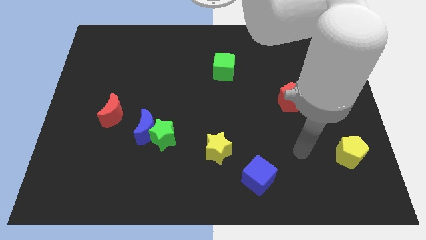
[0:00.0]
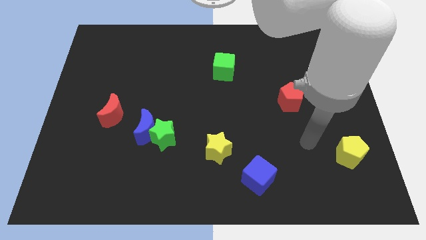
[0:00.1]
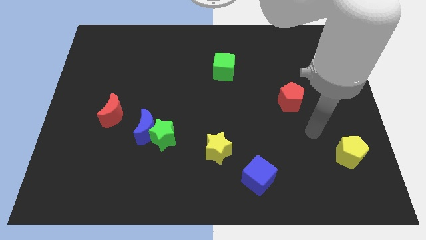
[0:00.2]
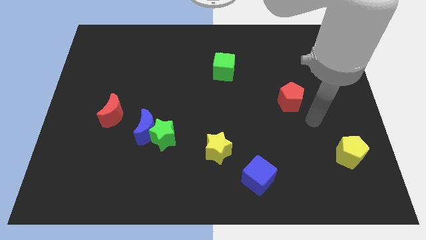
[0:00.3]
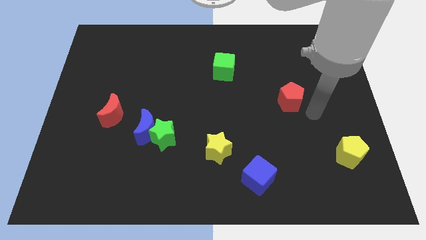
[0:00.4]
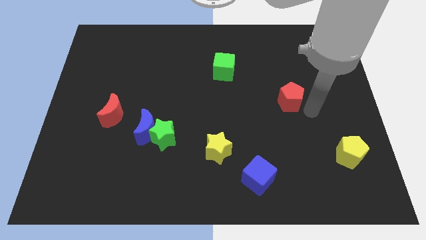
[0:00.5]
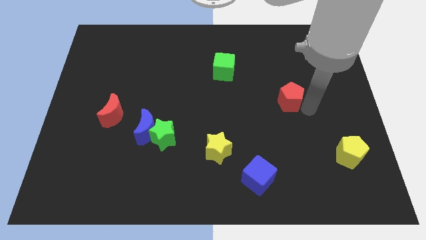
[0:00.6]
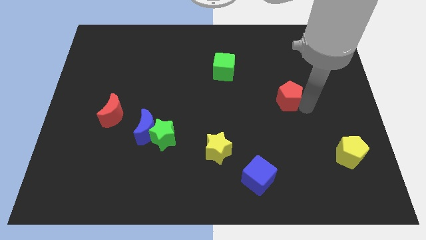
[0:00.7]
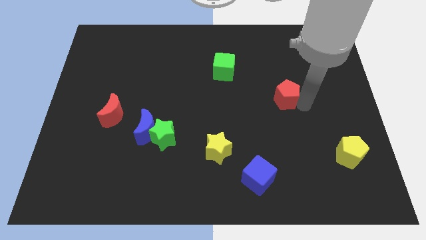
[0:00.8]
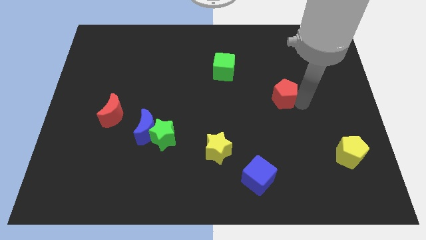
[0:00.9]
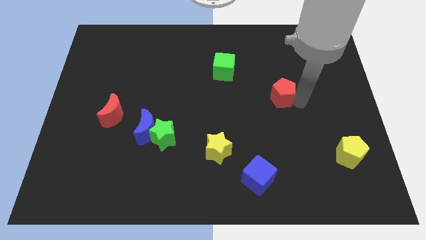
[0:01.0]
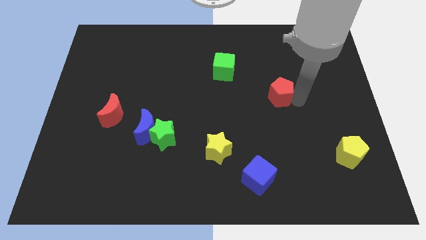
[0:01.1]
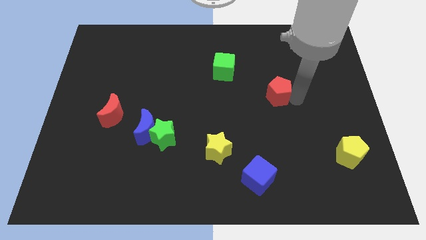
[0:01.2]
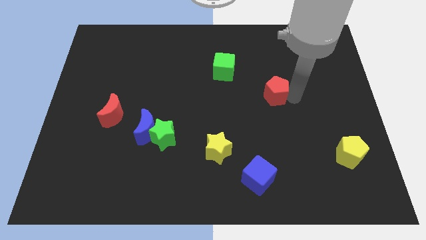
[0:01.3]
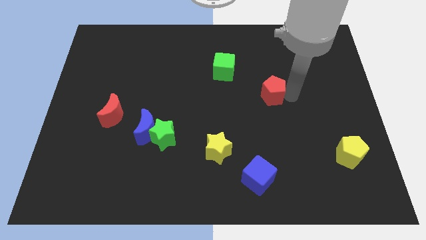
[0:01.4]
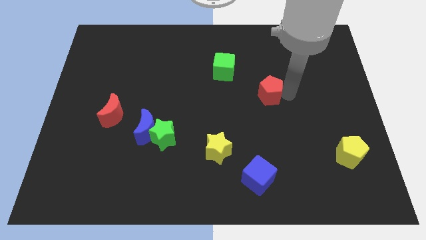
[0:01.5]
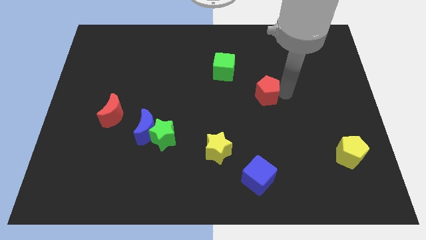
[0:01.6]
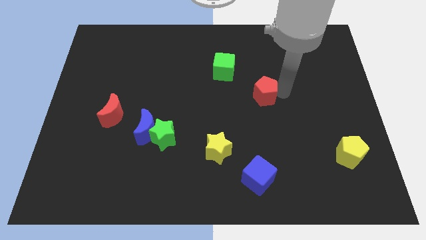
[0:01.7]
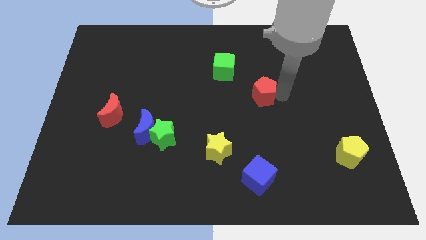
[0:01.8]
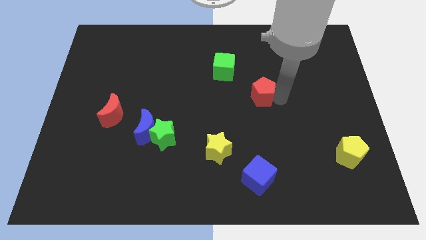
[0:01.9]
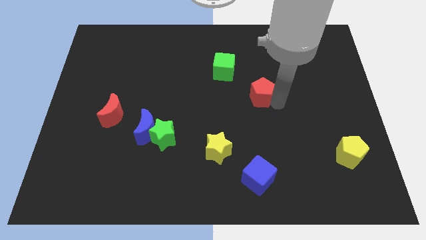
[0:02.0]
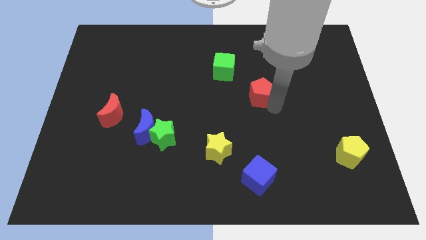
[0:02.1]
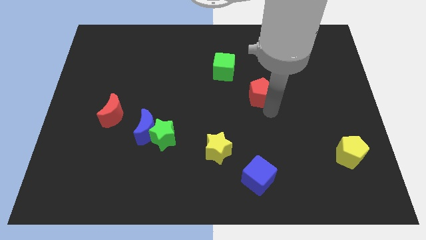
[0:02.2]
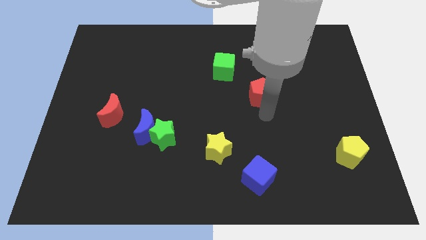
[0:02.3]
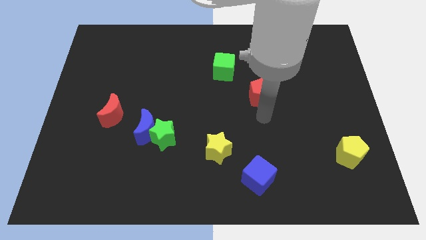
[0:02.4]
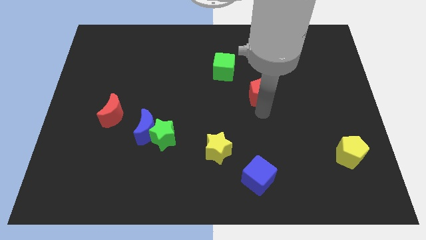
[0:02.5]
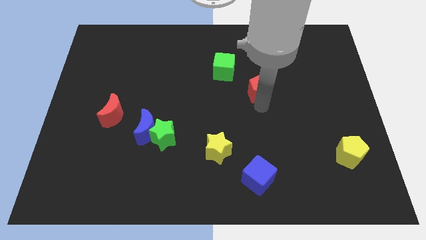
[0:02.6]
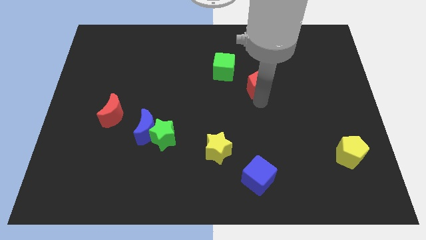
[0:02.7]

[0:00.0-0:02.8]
move the red pentagon diagonally upwards and to the left a little

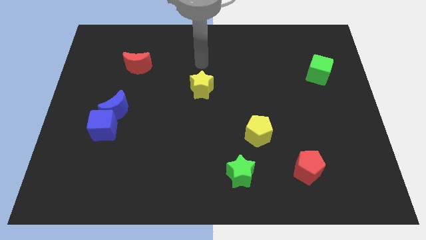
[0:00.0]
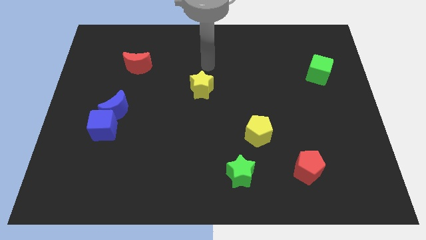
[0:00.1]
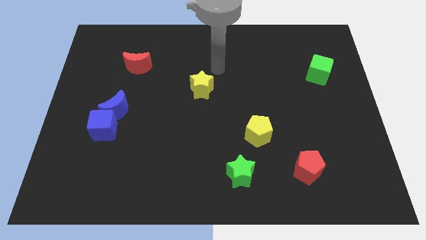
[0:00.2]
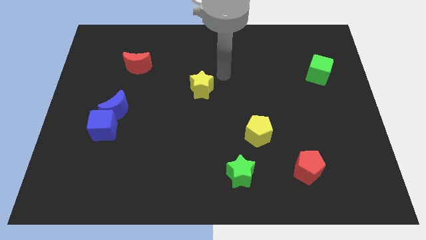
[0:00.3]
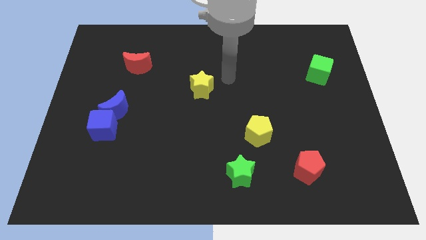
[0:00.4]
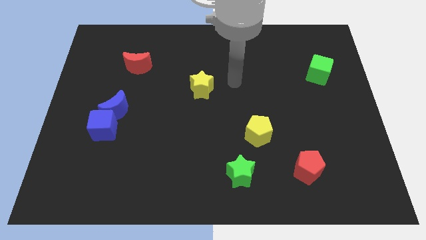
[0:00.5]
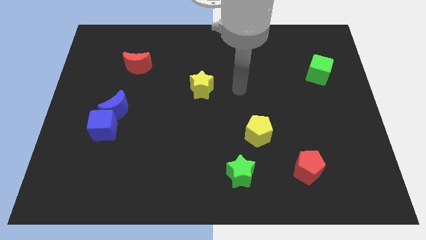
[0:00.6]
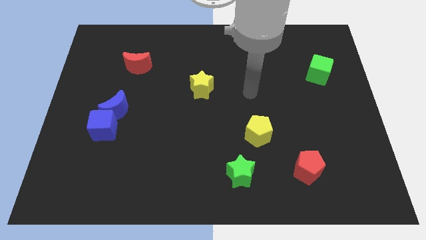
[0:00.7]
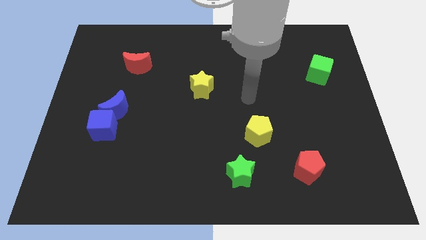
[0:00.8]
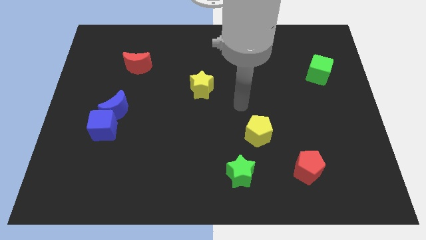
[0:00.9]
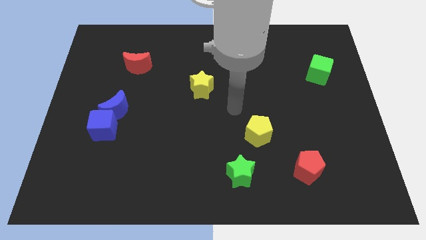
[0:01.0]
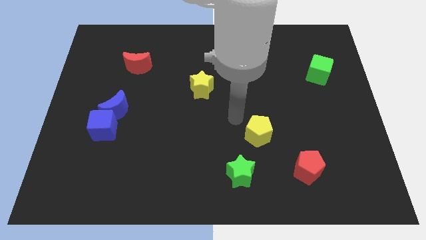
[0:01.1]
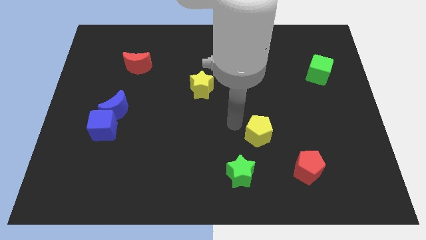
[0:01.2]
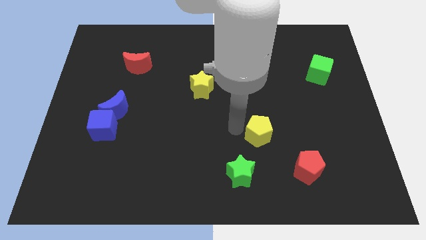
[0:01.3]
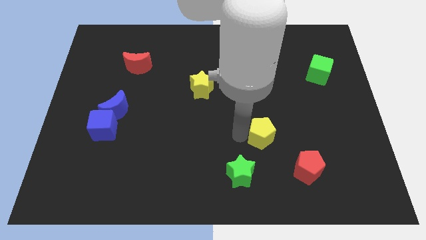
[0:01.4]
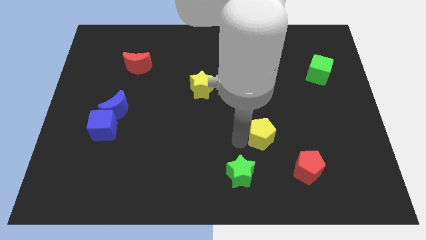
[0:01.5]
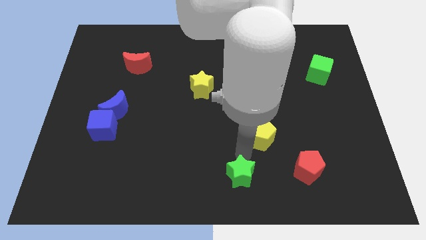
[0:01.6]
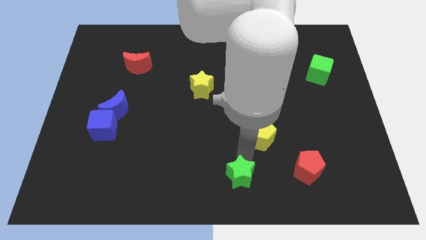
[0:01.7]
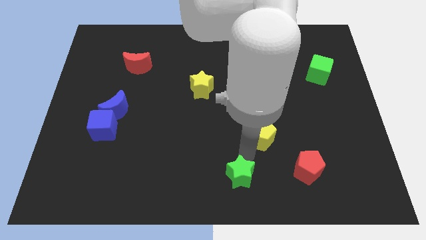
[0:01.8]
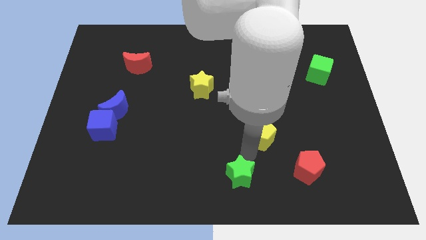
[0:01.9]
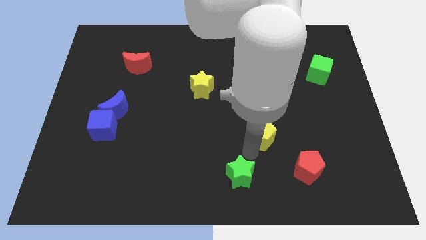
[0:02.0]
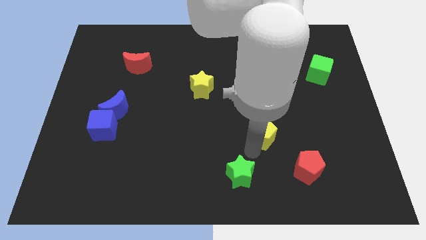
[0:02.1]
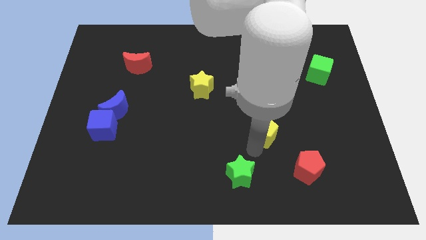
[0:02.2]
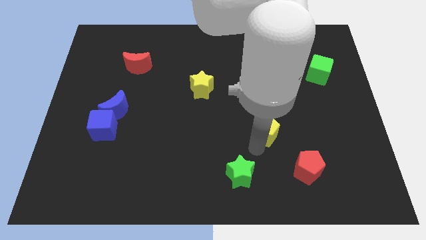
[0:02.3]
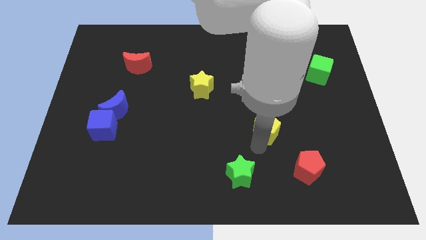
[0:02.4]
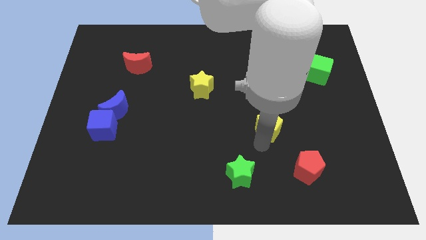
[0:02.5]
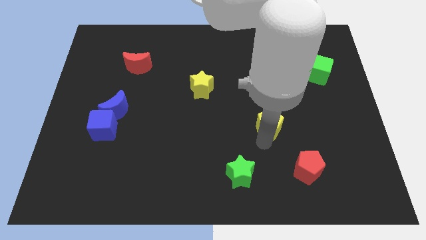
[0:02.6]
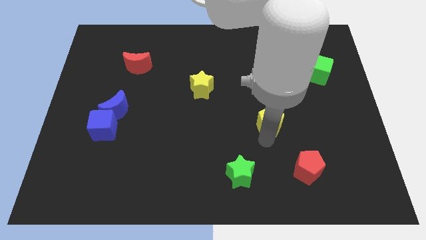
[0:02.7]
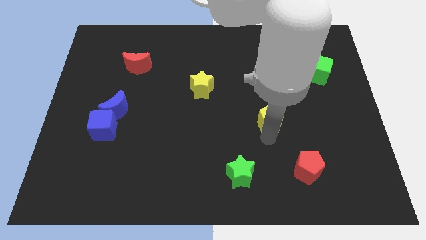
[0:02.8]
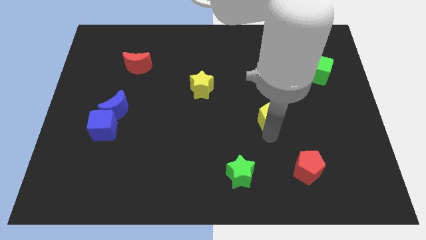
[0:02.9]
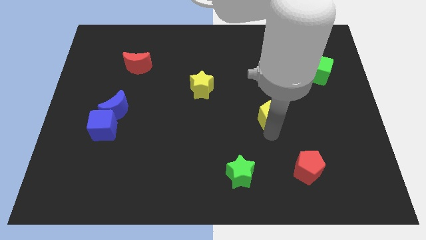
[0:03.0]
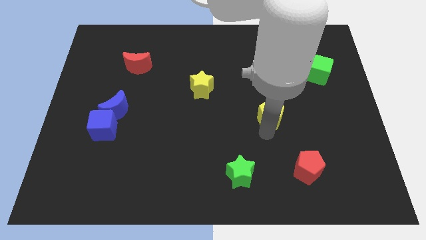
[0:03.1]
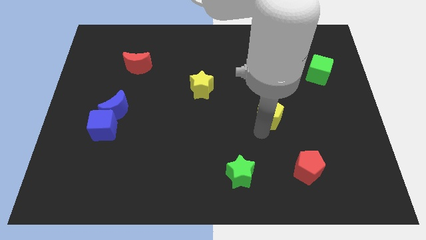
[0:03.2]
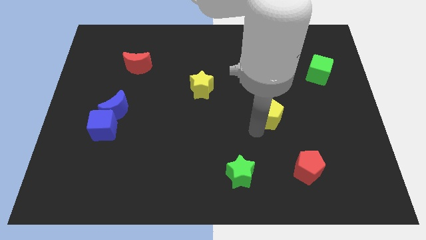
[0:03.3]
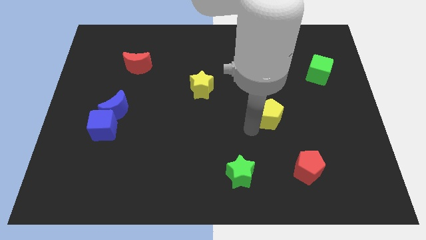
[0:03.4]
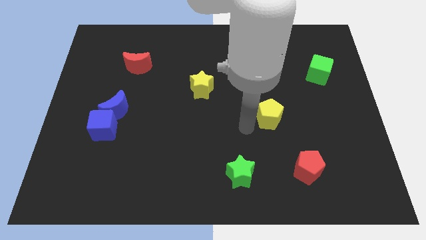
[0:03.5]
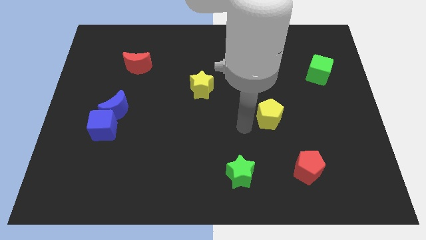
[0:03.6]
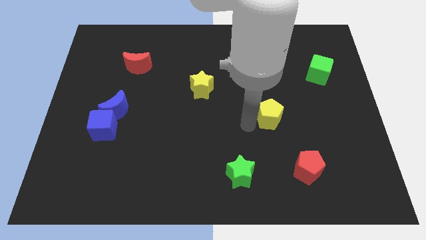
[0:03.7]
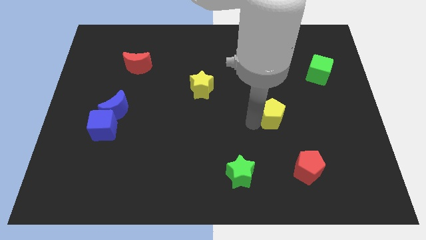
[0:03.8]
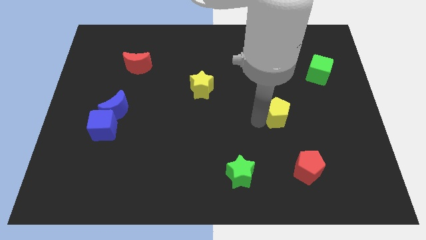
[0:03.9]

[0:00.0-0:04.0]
slightly move the yellow pentagon diagonally upwards and right

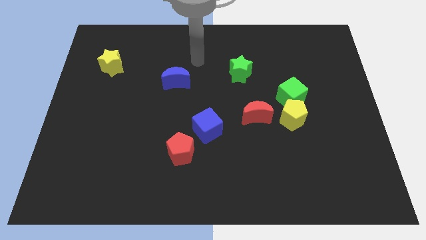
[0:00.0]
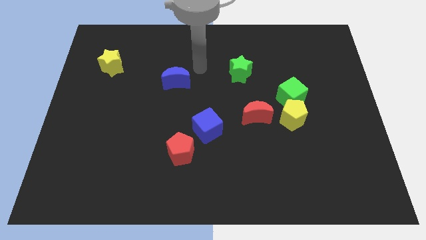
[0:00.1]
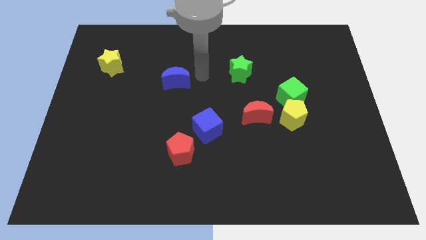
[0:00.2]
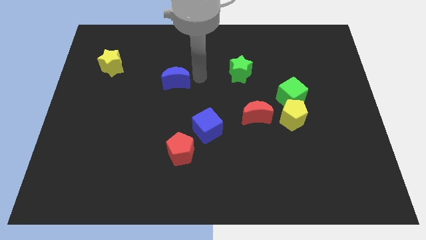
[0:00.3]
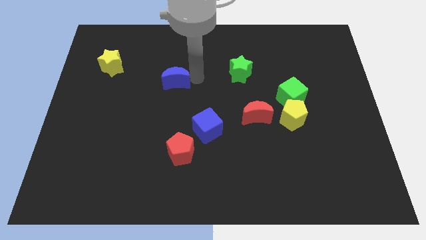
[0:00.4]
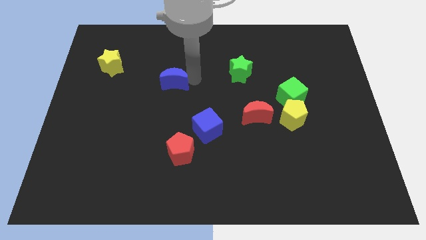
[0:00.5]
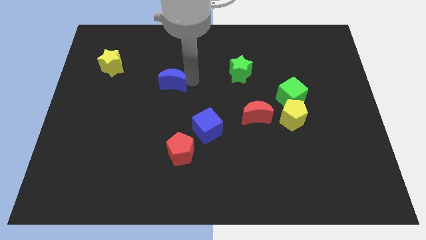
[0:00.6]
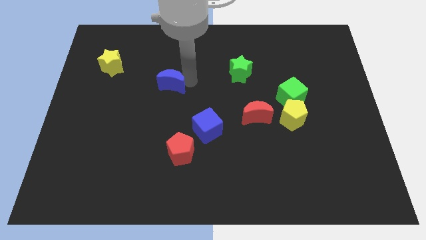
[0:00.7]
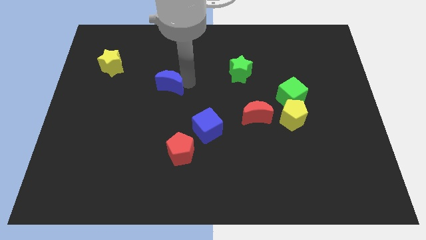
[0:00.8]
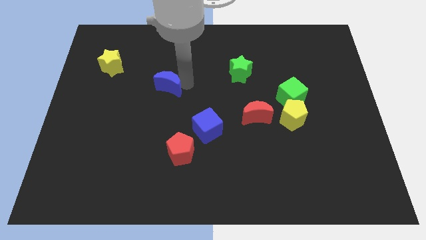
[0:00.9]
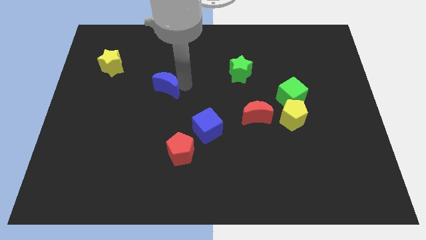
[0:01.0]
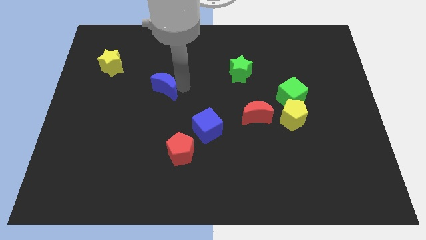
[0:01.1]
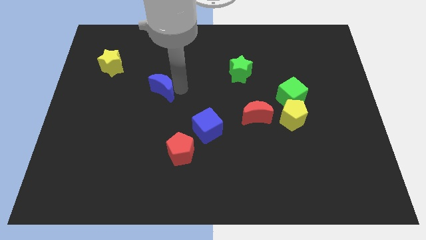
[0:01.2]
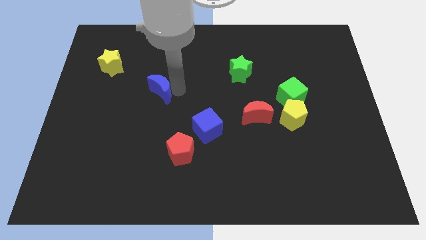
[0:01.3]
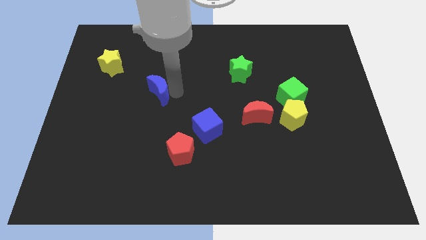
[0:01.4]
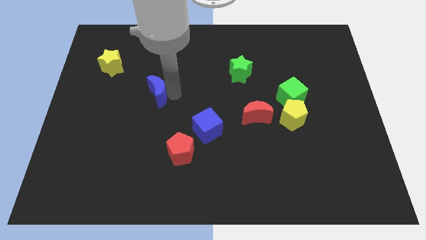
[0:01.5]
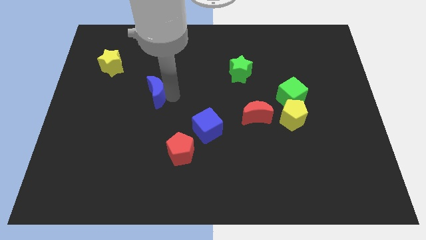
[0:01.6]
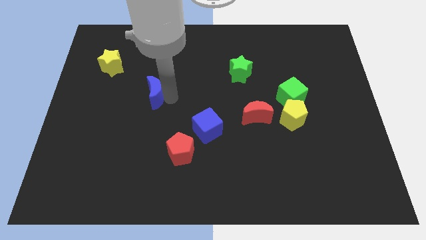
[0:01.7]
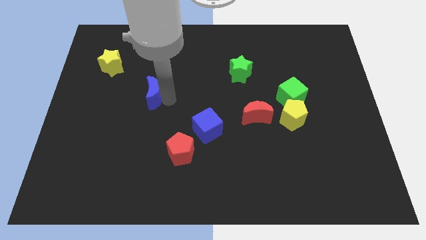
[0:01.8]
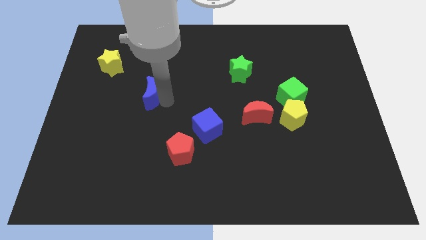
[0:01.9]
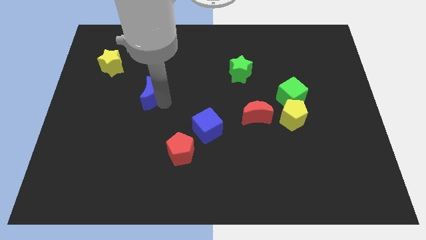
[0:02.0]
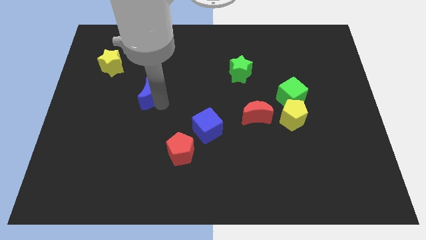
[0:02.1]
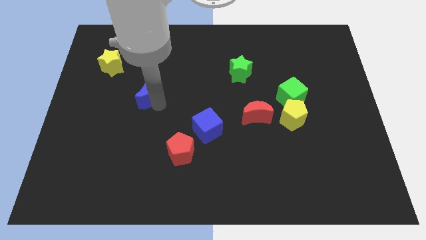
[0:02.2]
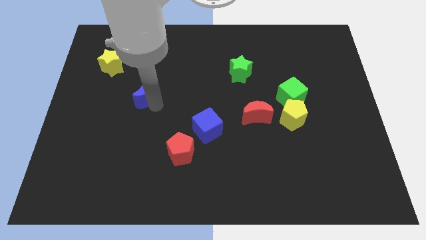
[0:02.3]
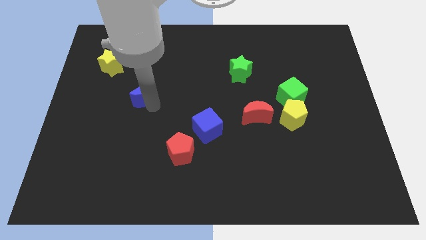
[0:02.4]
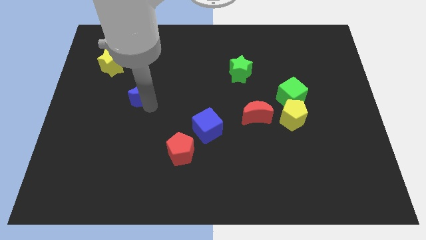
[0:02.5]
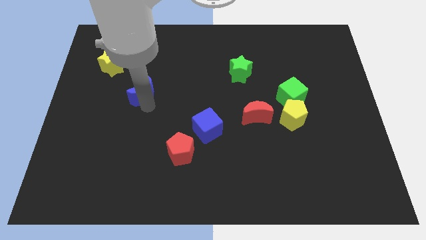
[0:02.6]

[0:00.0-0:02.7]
push the blue moon somewhat to the left
